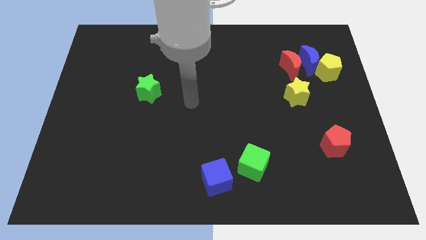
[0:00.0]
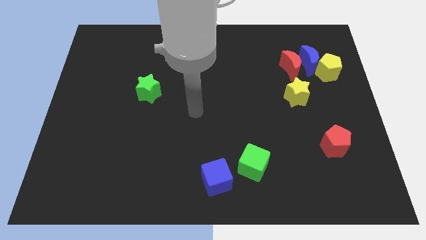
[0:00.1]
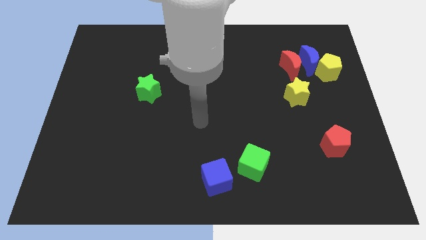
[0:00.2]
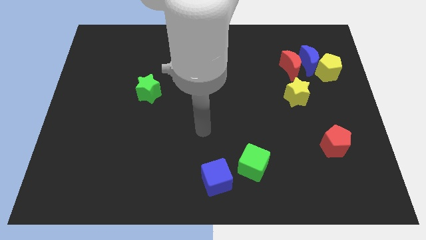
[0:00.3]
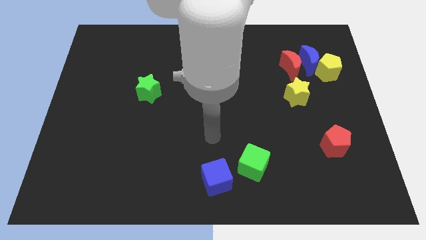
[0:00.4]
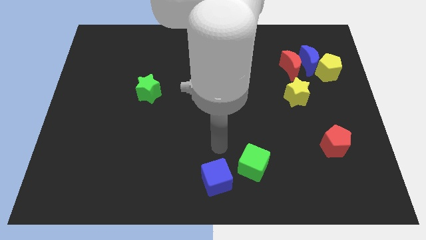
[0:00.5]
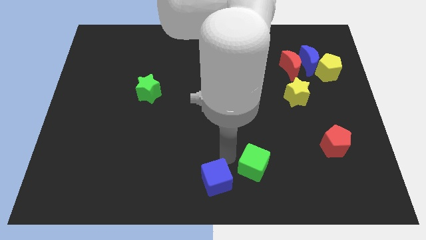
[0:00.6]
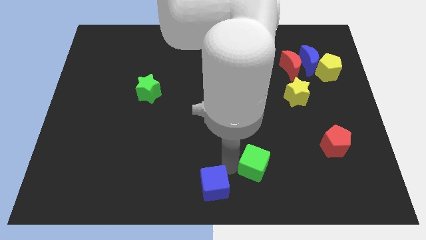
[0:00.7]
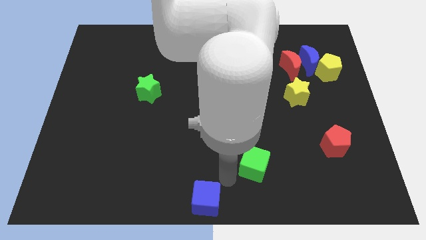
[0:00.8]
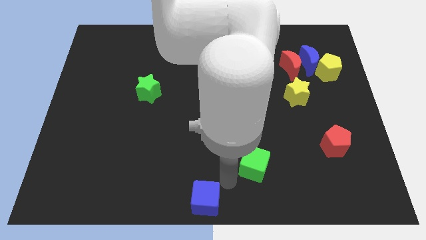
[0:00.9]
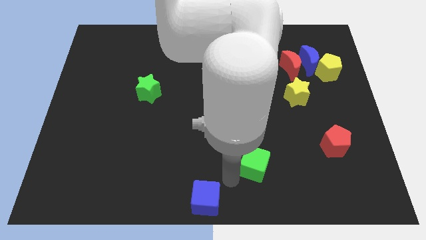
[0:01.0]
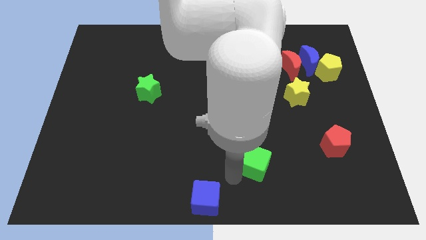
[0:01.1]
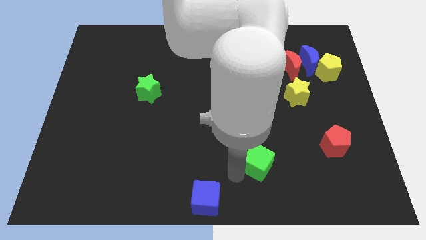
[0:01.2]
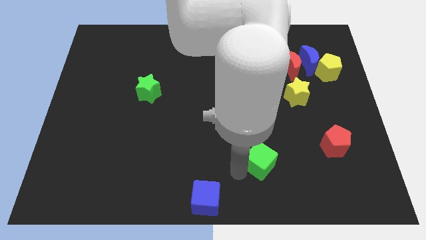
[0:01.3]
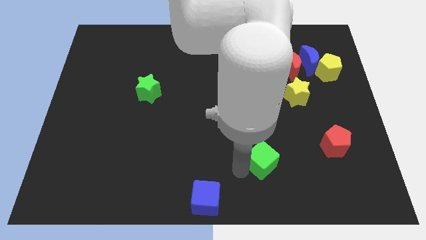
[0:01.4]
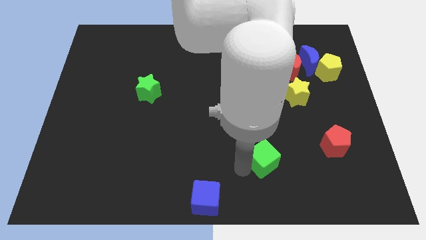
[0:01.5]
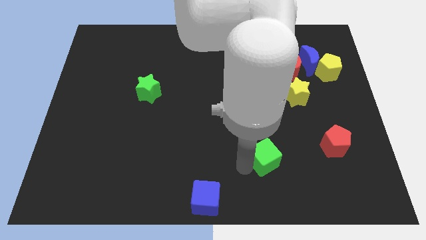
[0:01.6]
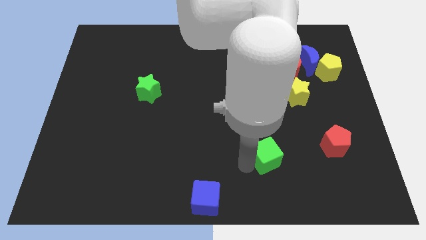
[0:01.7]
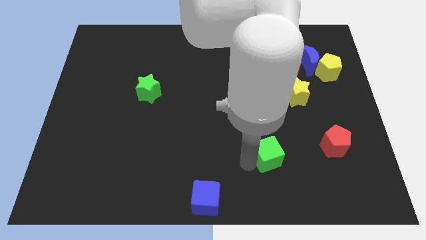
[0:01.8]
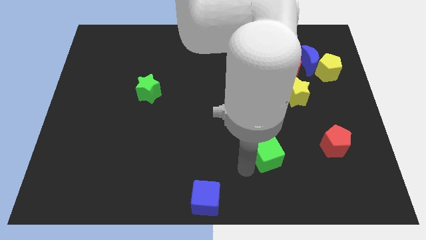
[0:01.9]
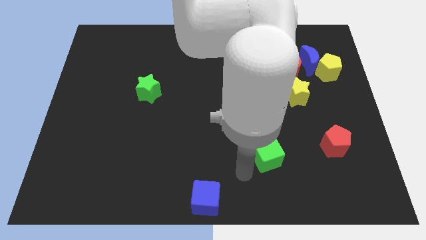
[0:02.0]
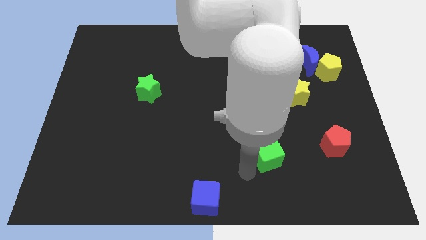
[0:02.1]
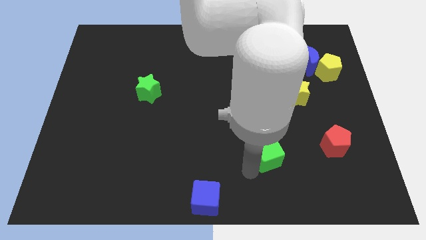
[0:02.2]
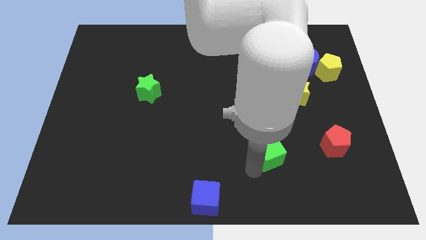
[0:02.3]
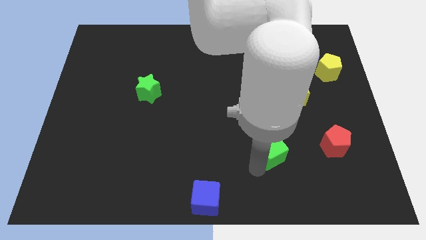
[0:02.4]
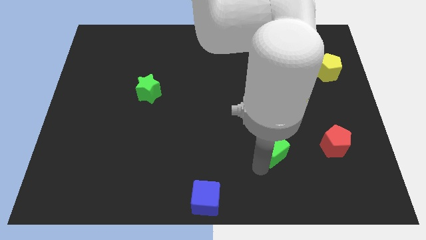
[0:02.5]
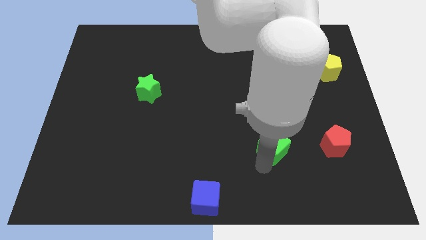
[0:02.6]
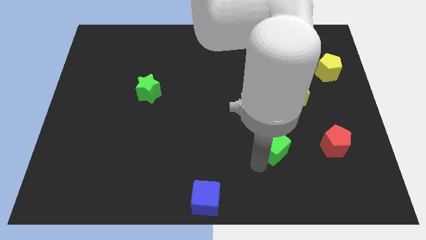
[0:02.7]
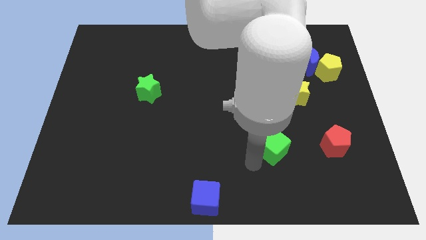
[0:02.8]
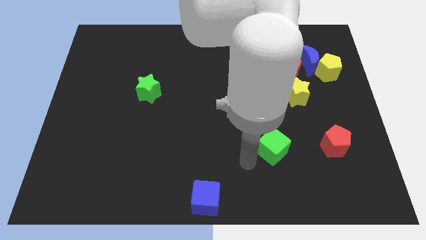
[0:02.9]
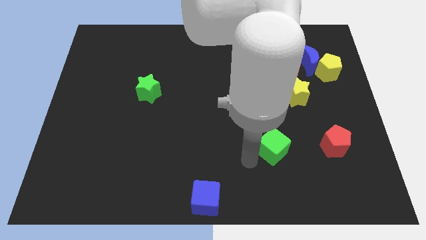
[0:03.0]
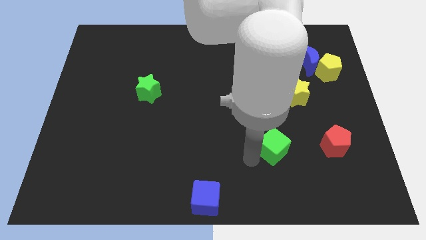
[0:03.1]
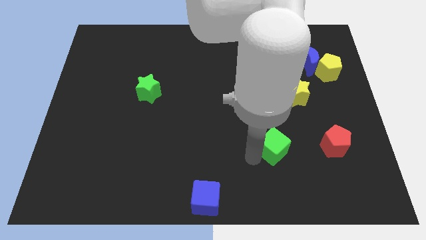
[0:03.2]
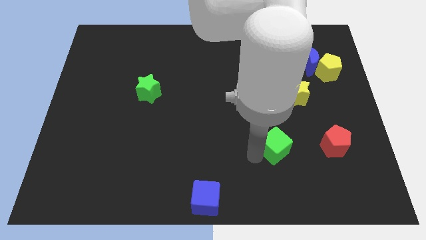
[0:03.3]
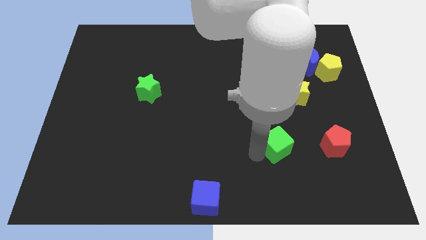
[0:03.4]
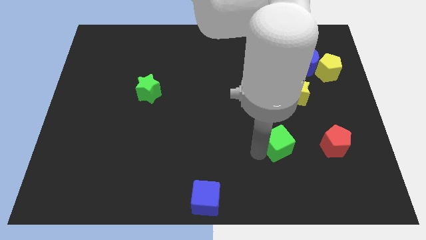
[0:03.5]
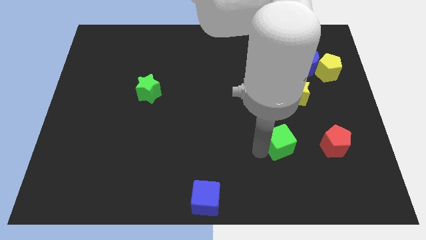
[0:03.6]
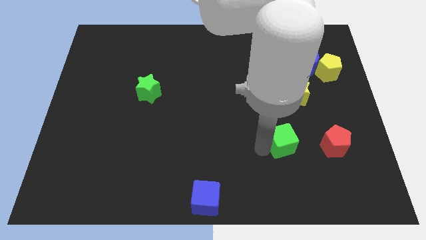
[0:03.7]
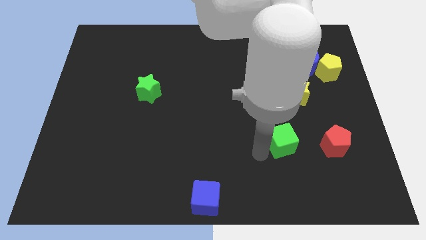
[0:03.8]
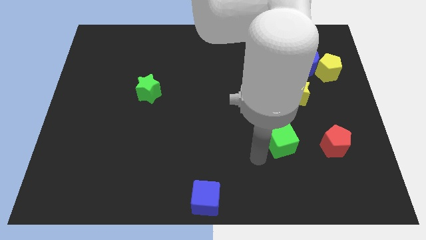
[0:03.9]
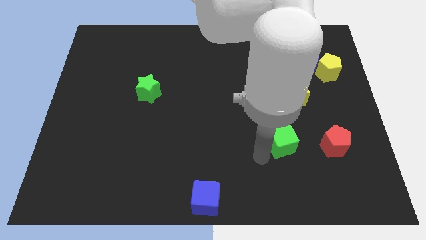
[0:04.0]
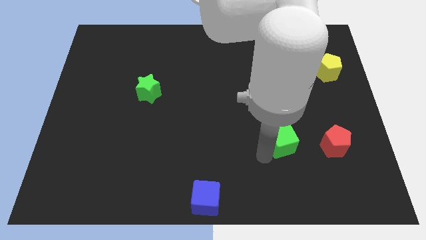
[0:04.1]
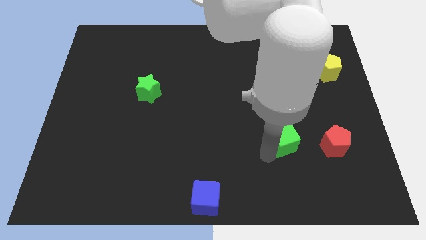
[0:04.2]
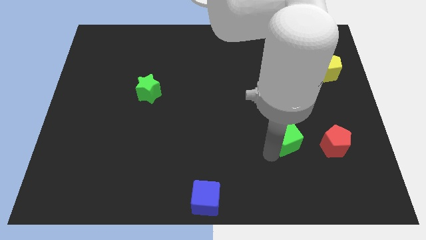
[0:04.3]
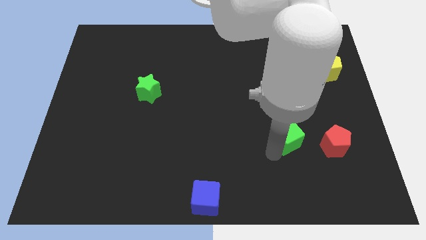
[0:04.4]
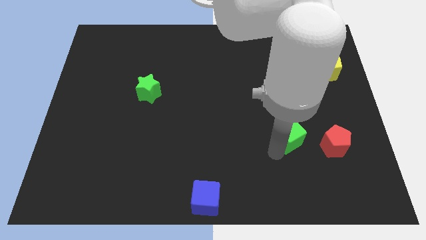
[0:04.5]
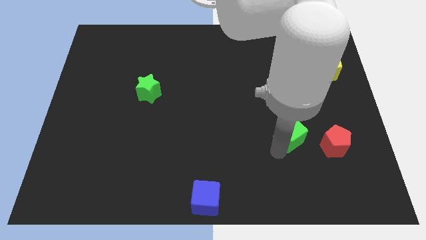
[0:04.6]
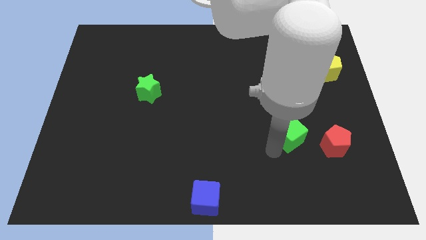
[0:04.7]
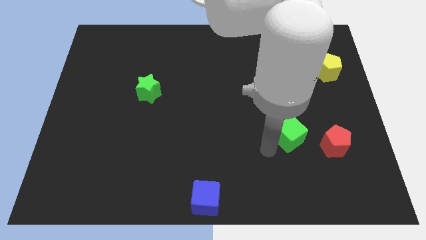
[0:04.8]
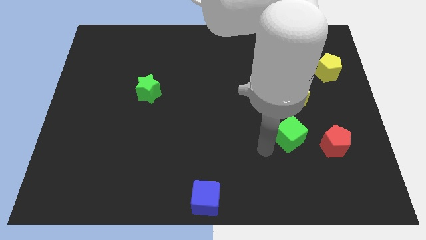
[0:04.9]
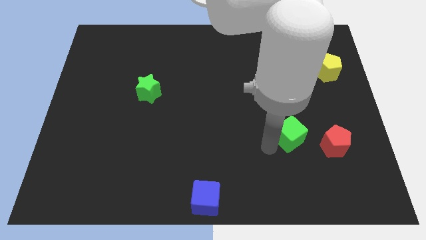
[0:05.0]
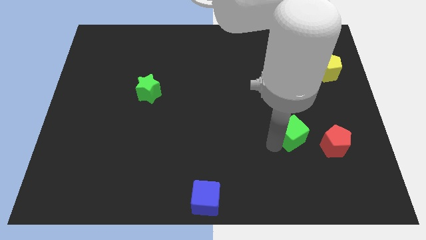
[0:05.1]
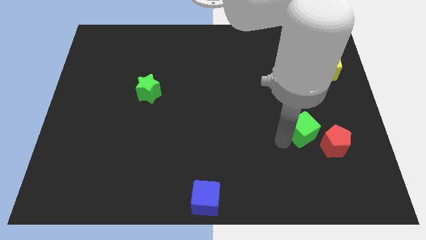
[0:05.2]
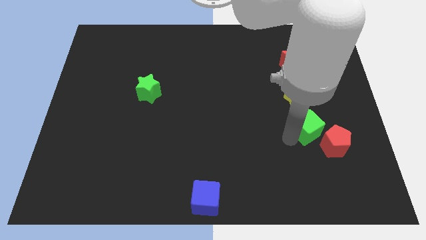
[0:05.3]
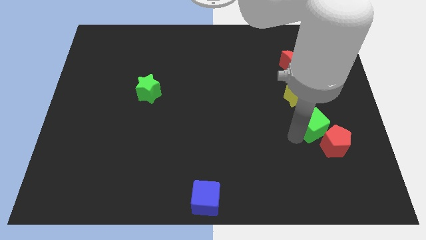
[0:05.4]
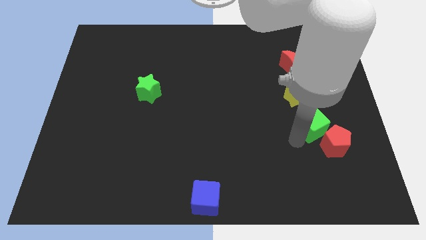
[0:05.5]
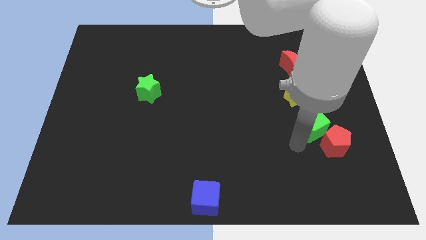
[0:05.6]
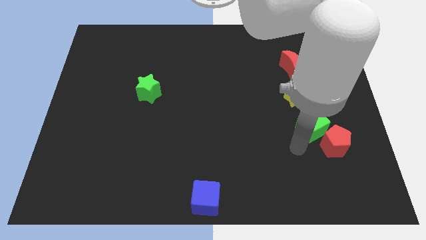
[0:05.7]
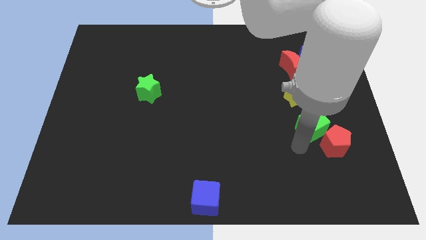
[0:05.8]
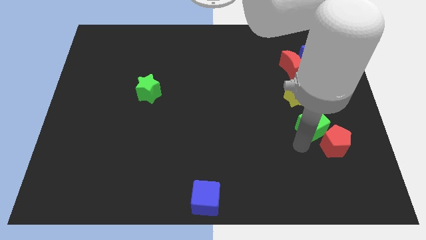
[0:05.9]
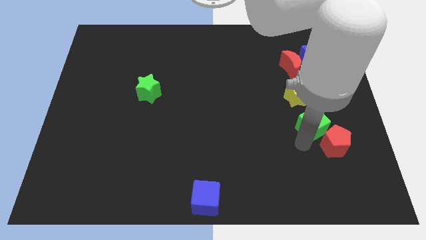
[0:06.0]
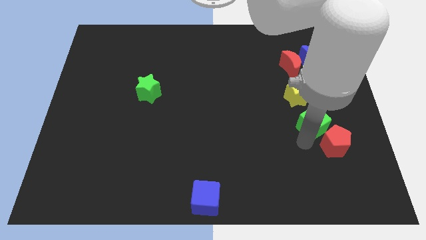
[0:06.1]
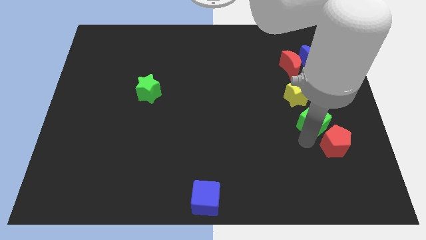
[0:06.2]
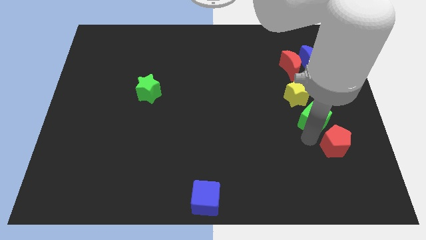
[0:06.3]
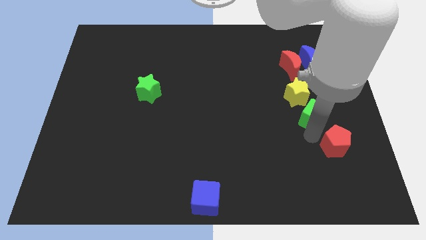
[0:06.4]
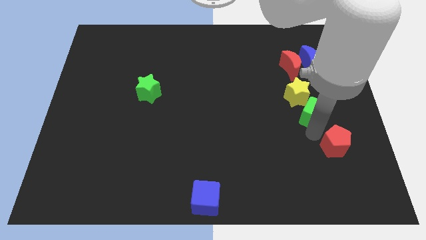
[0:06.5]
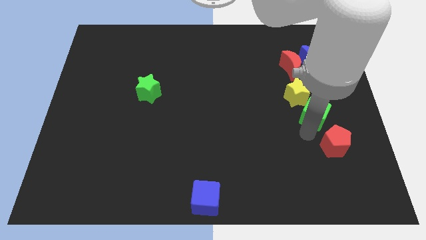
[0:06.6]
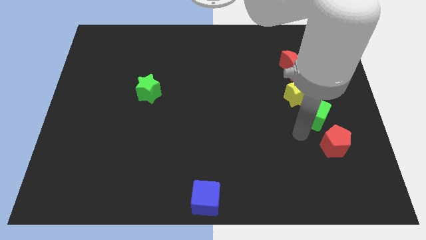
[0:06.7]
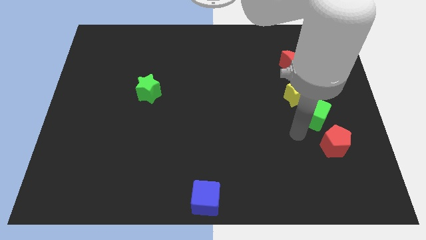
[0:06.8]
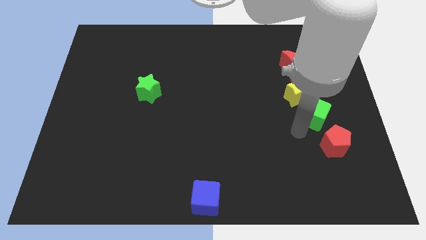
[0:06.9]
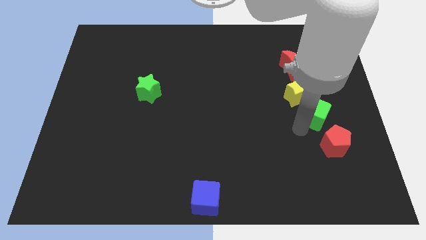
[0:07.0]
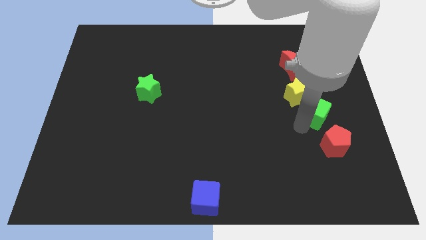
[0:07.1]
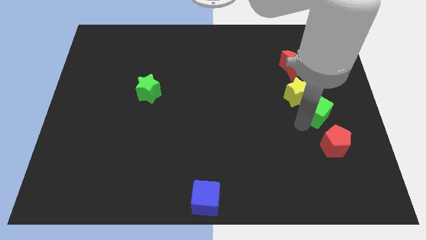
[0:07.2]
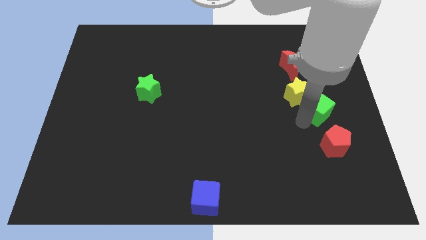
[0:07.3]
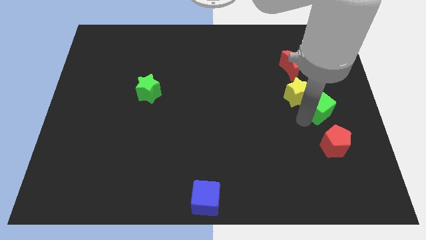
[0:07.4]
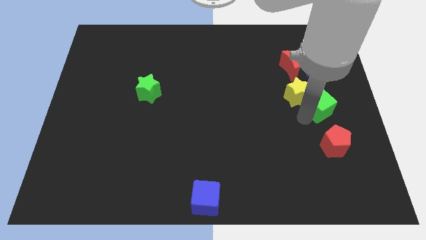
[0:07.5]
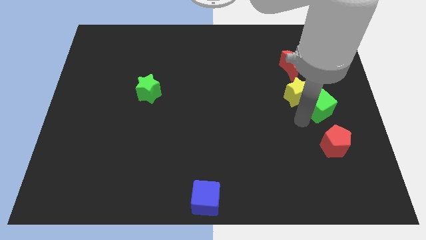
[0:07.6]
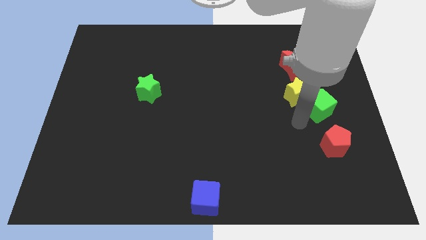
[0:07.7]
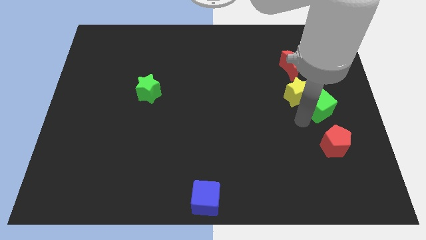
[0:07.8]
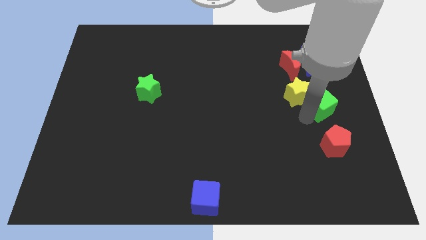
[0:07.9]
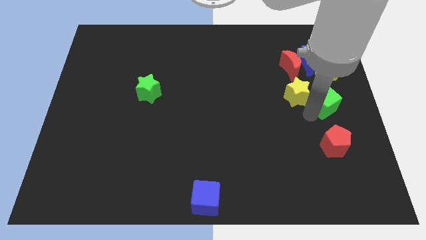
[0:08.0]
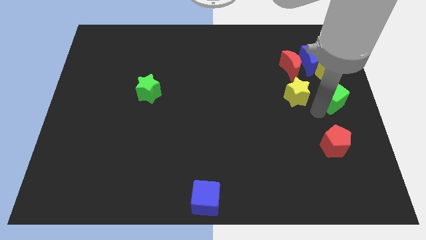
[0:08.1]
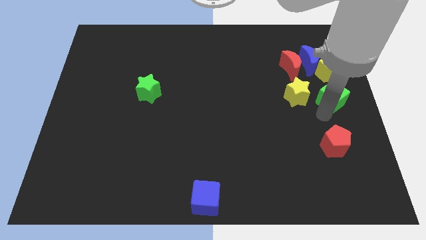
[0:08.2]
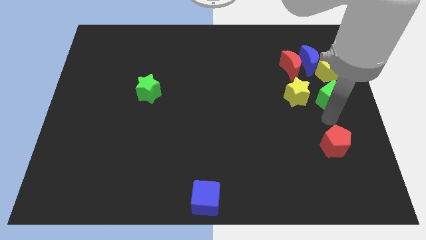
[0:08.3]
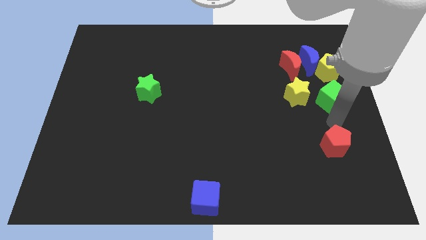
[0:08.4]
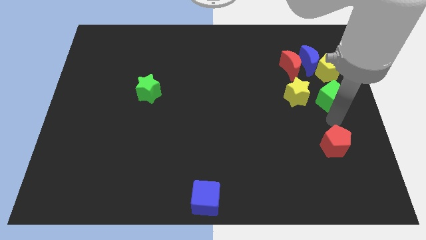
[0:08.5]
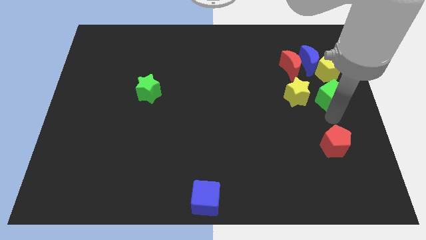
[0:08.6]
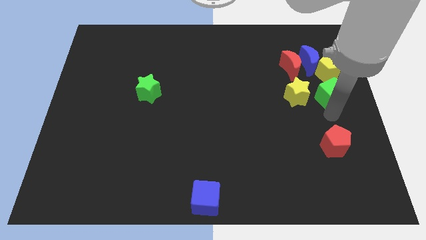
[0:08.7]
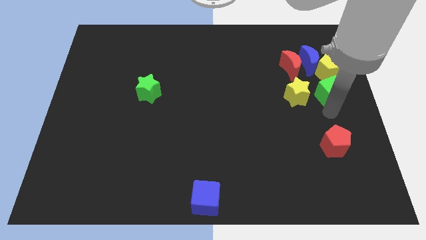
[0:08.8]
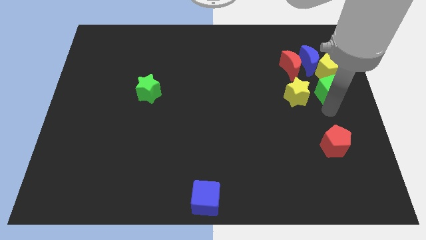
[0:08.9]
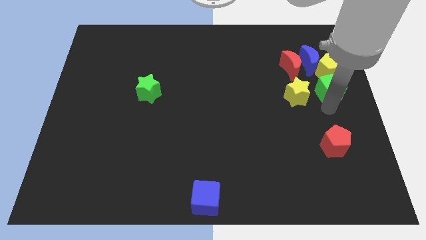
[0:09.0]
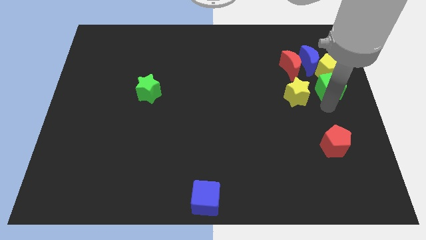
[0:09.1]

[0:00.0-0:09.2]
move the green cube towards the yellow pentagon
